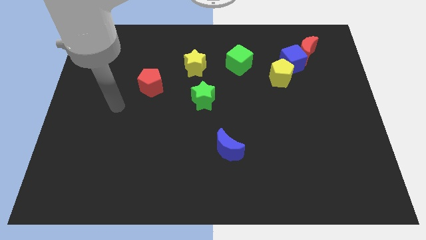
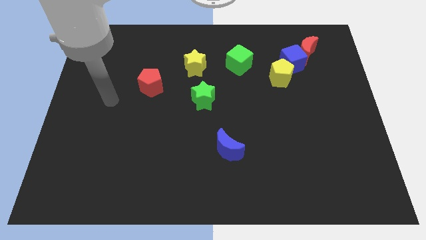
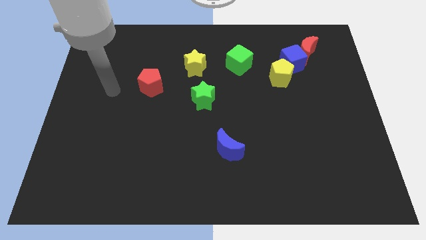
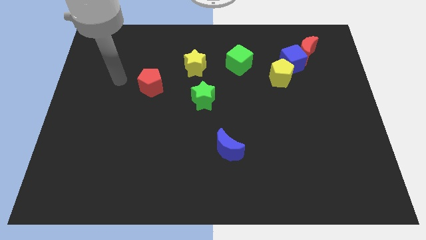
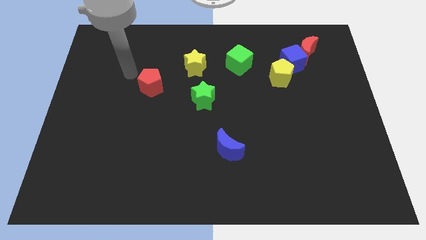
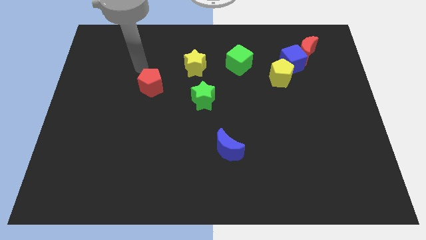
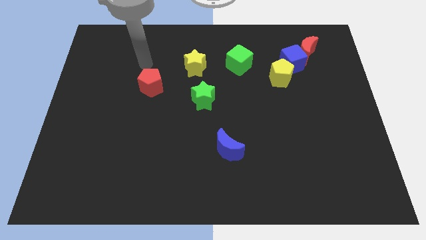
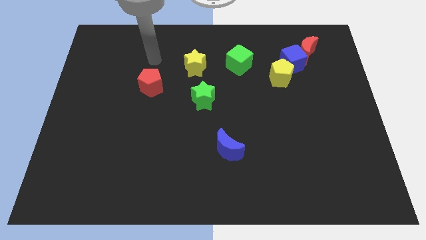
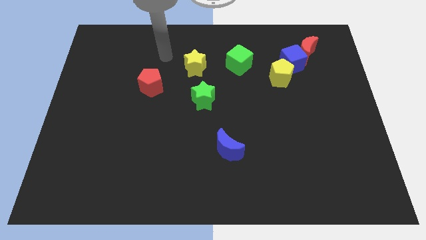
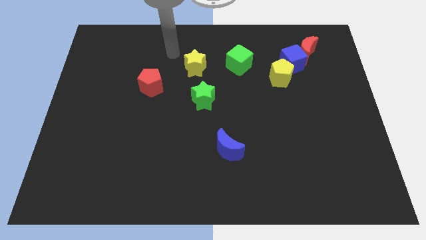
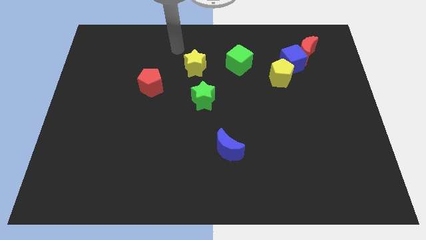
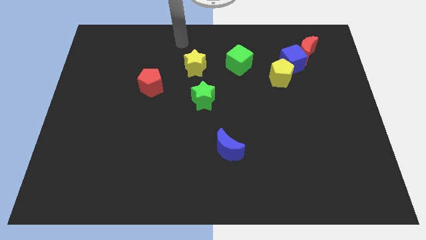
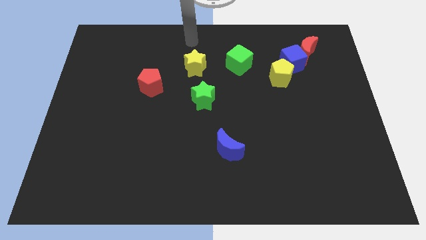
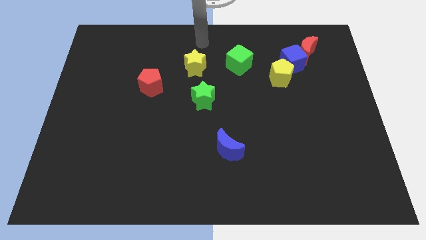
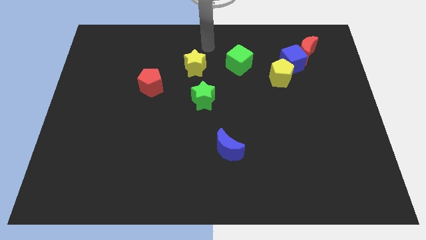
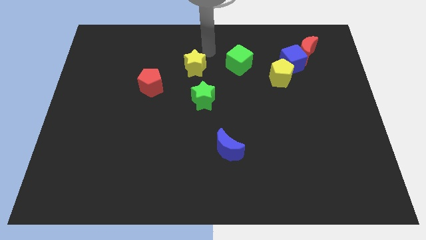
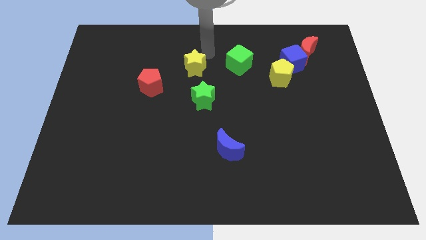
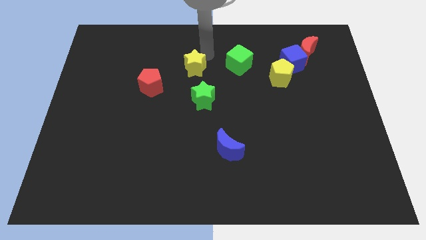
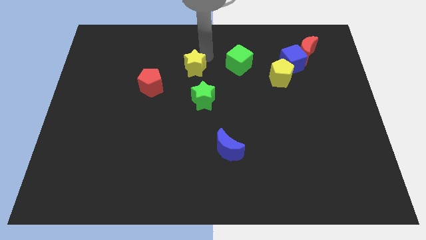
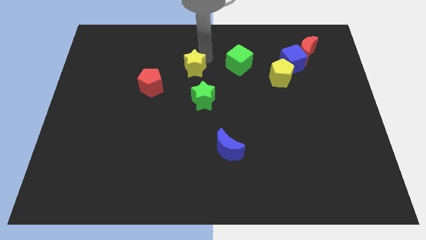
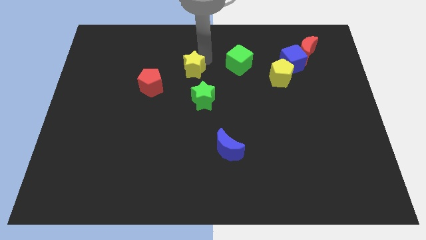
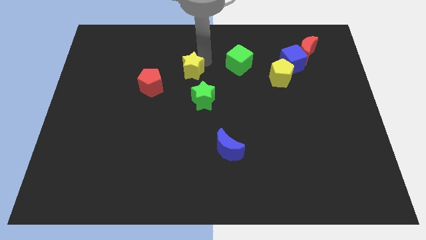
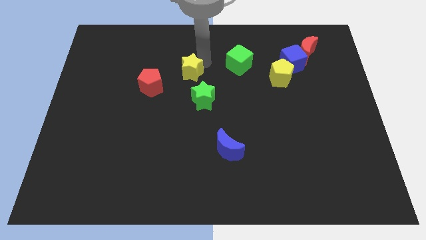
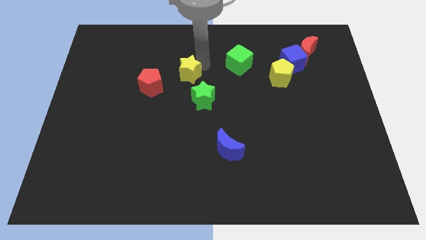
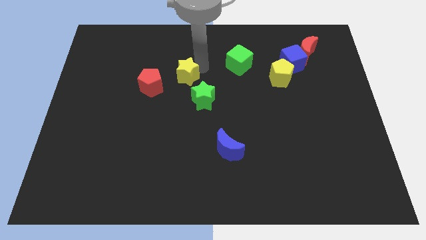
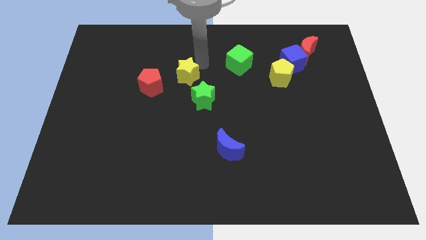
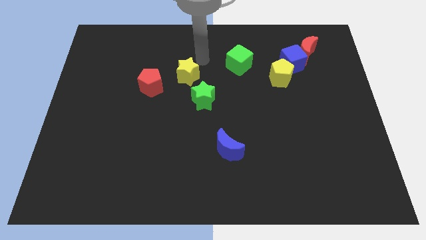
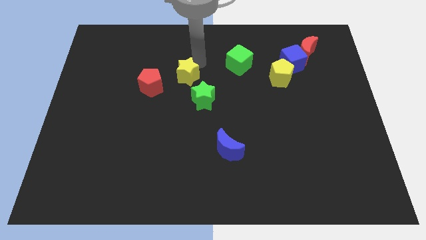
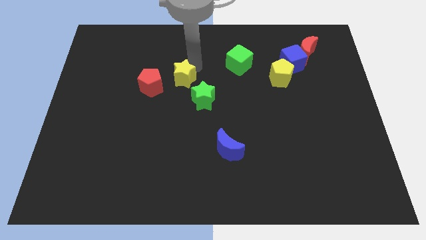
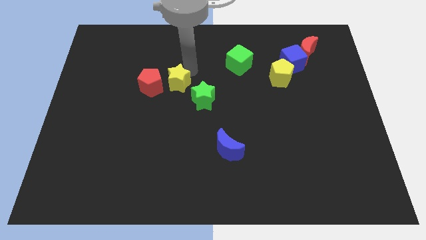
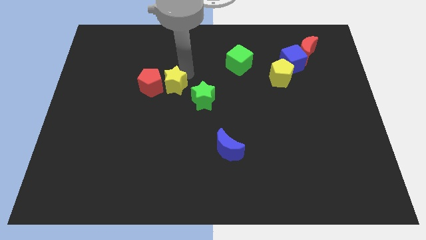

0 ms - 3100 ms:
slightly push the yellow star downwards and left diagonally

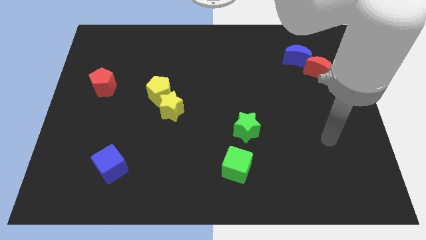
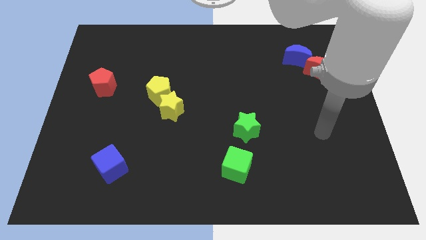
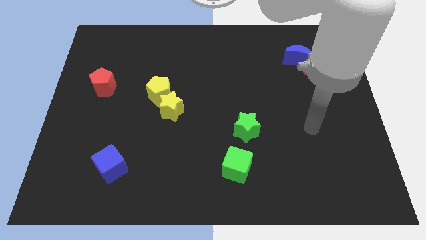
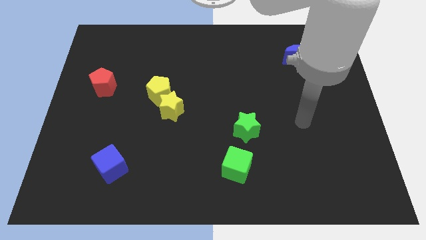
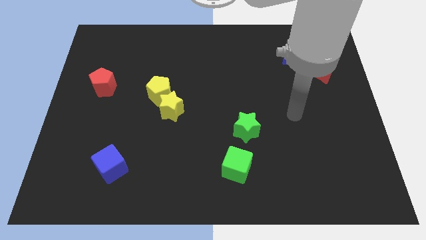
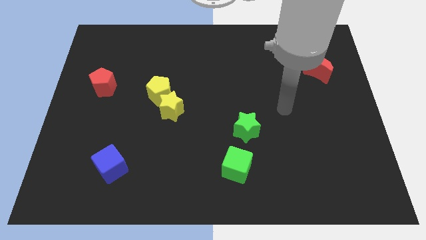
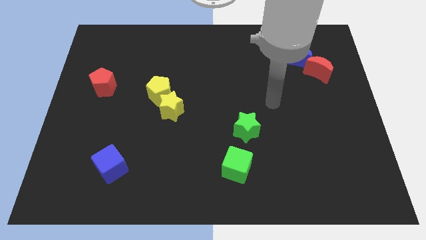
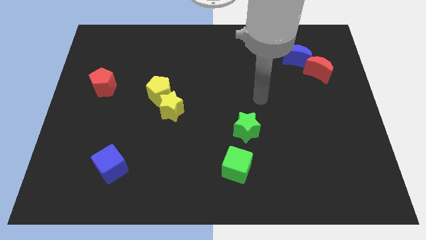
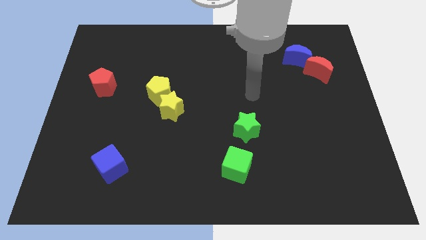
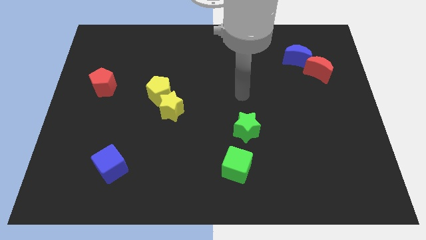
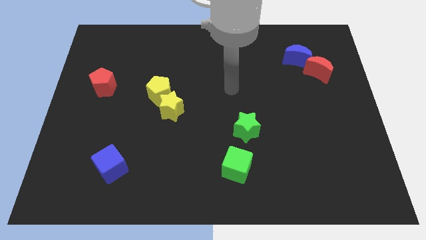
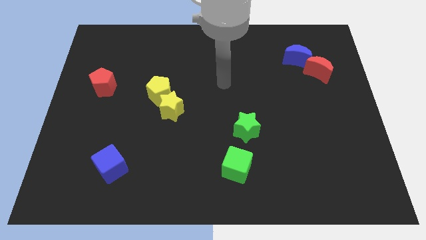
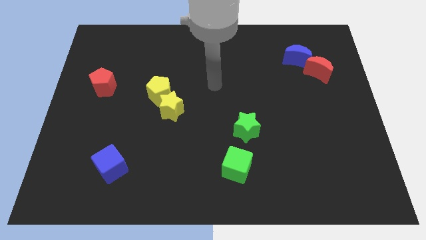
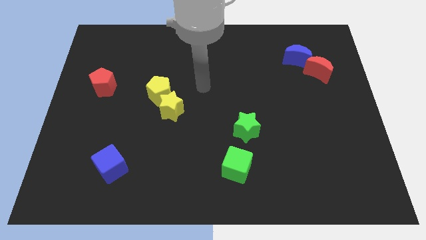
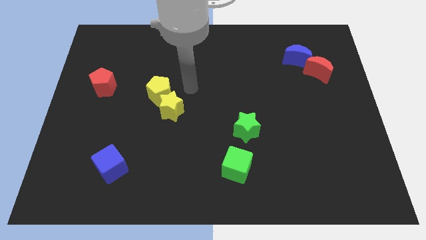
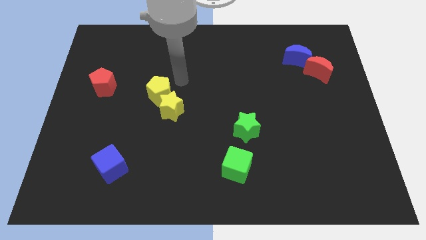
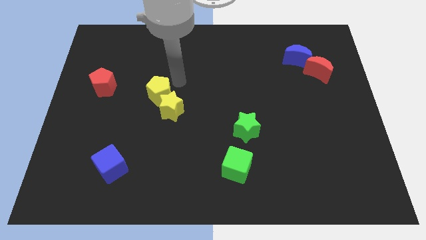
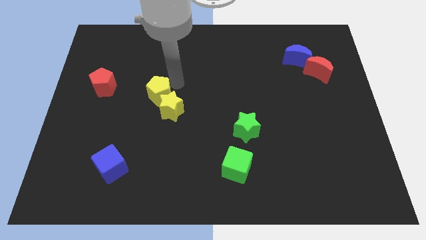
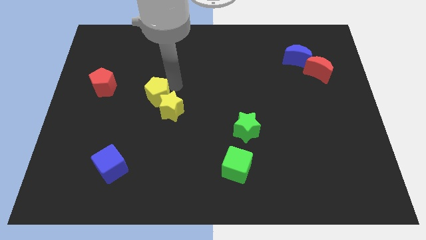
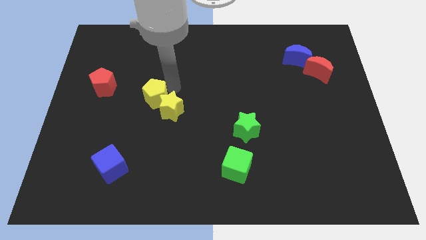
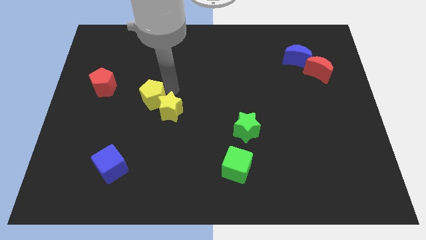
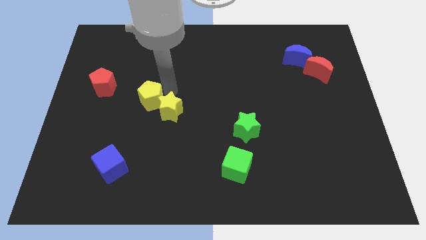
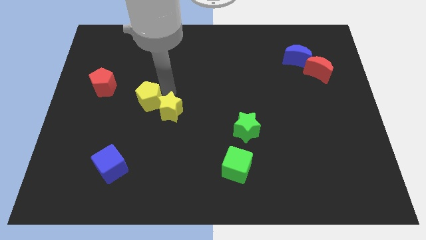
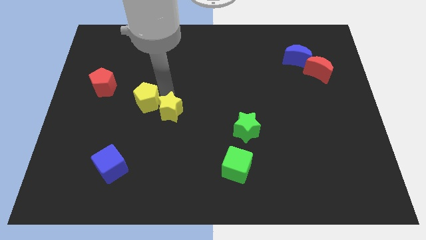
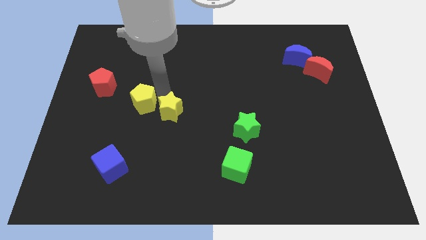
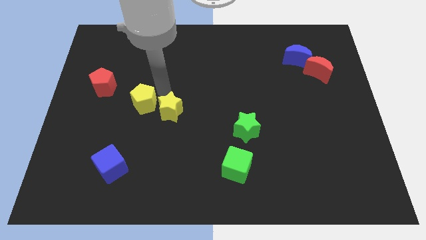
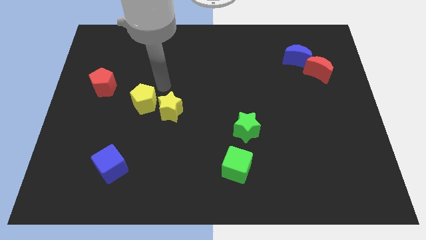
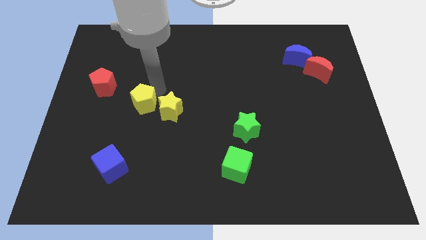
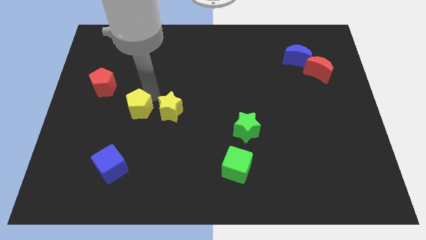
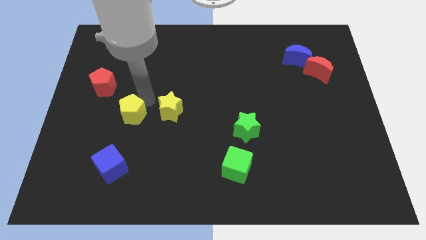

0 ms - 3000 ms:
move the yellow pentagon a little downwards and left

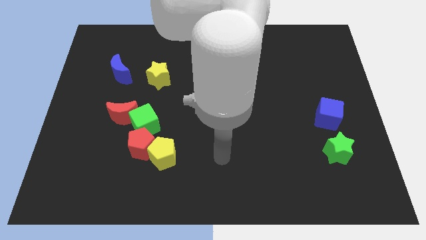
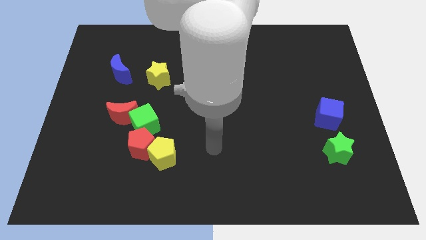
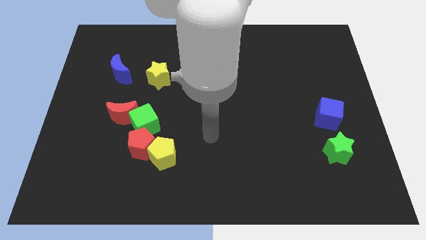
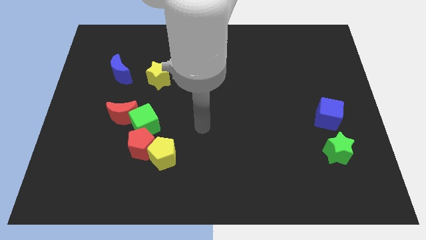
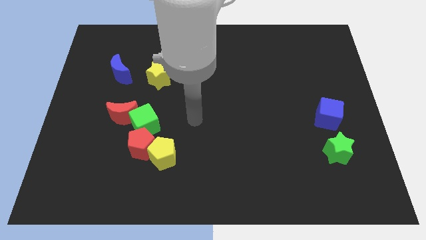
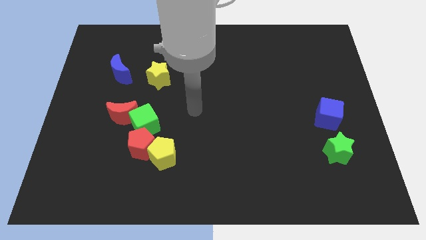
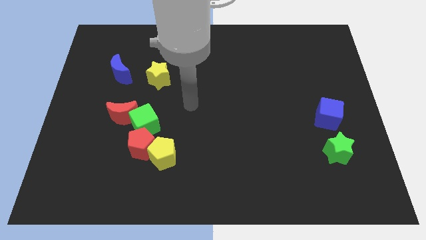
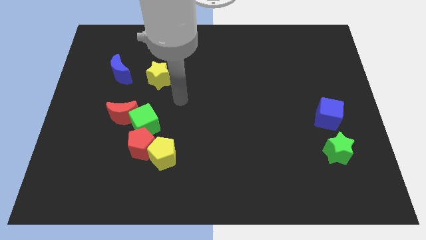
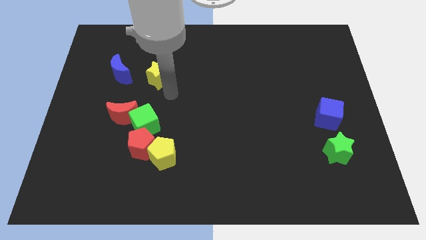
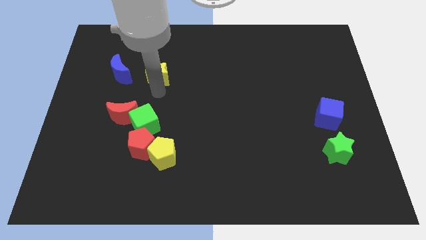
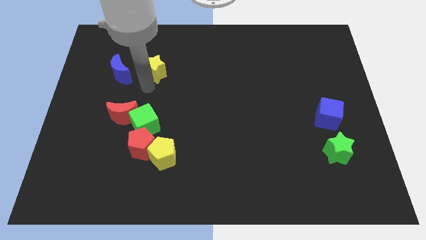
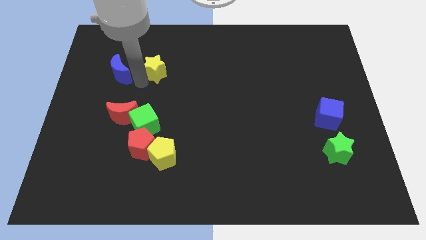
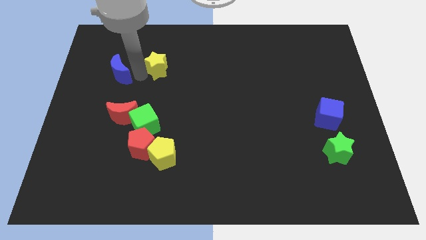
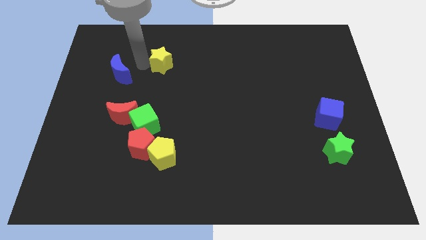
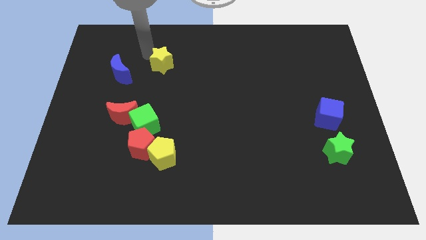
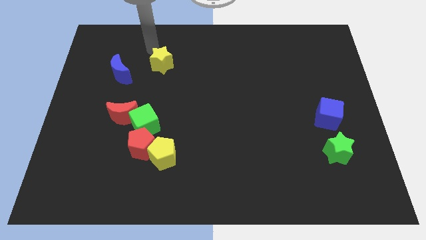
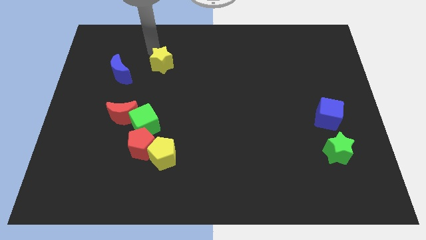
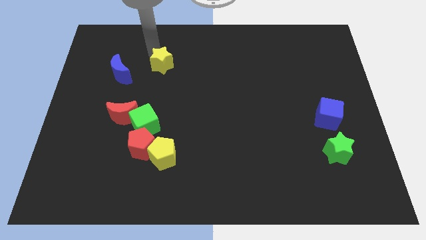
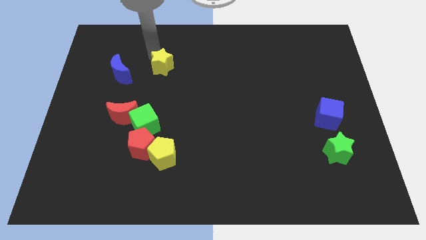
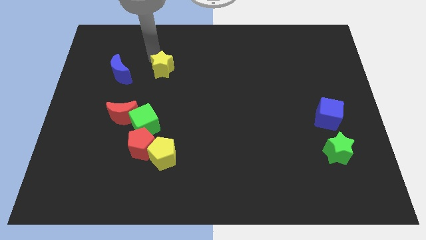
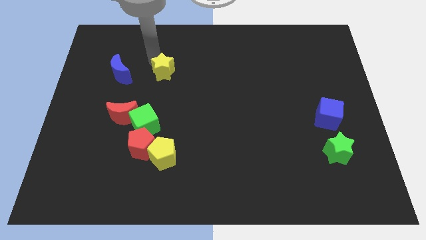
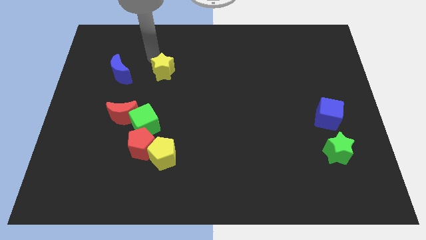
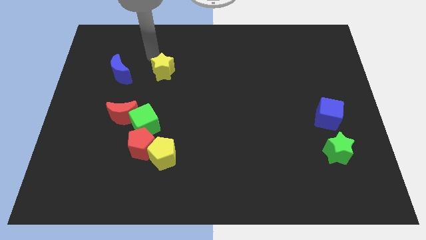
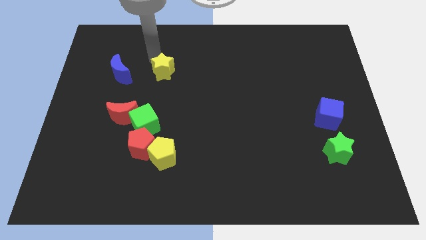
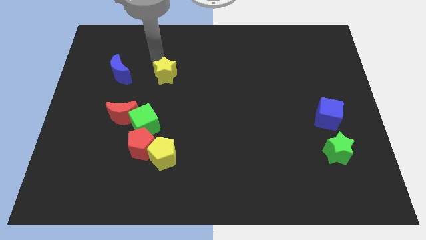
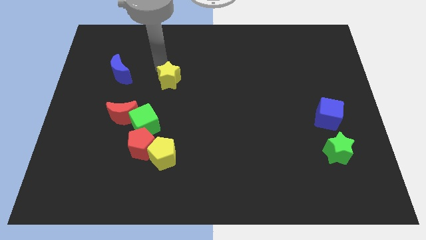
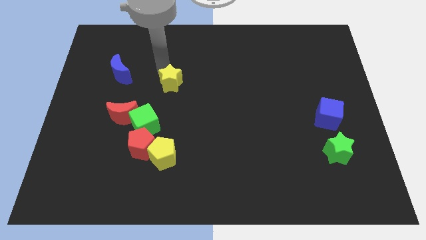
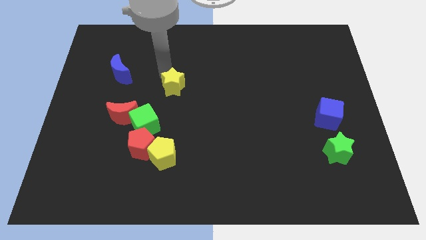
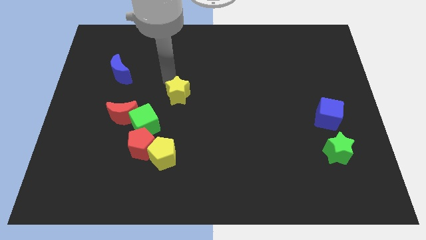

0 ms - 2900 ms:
slightly slide the yellow star diagonally downwards and to the right
